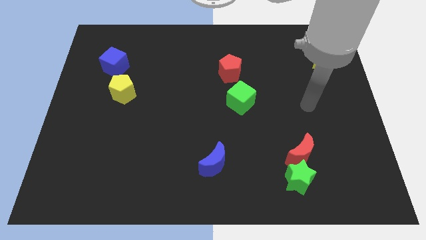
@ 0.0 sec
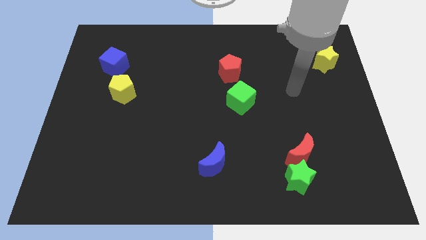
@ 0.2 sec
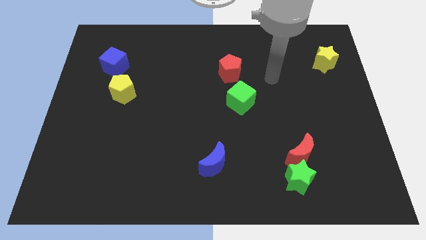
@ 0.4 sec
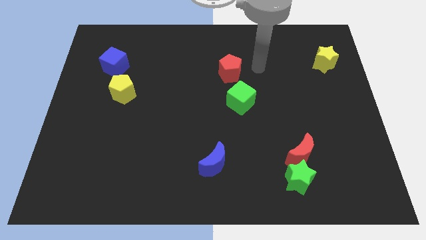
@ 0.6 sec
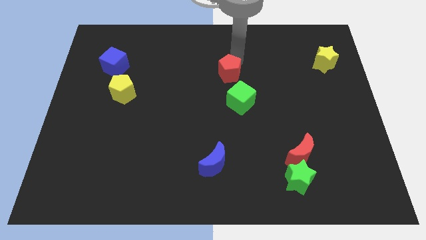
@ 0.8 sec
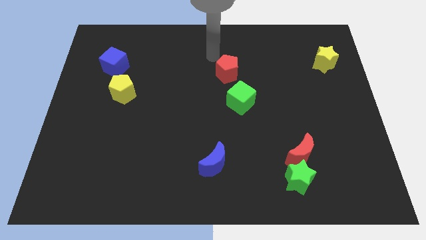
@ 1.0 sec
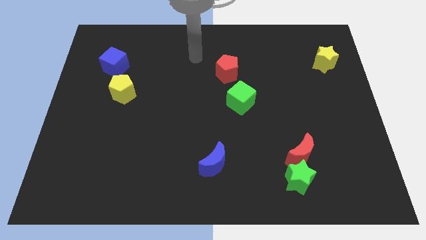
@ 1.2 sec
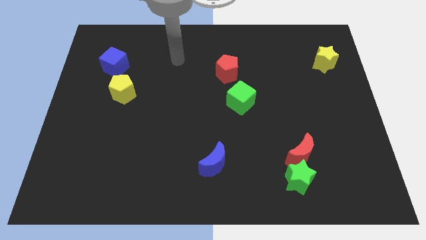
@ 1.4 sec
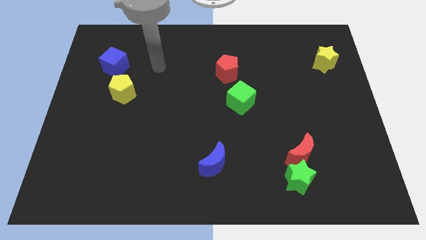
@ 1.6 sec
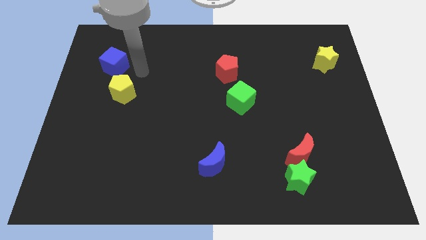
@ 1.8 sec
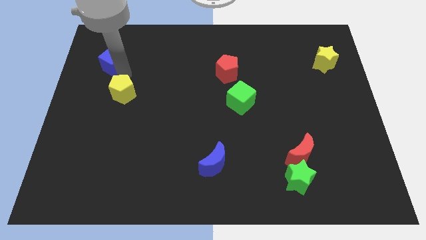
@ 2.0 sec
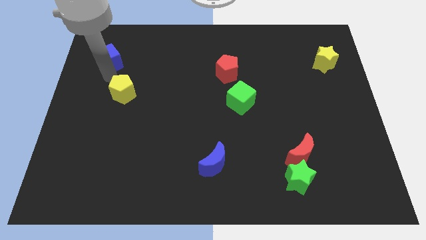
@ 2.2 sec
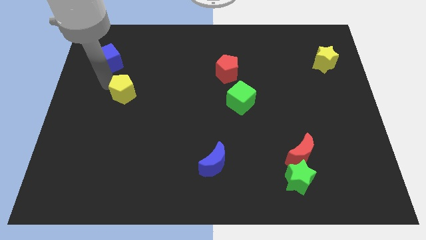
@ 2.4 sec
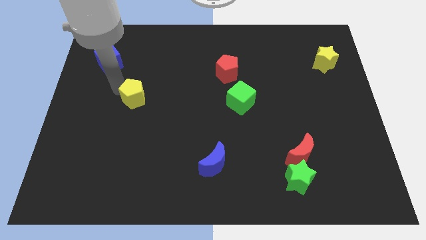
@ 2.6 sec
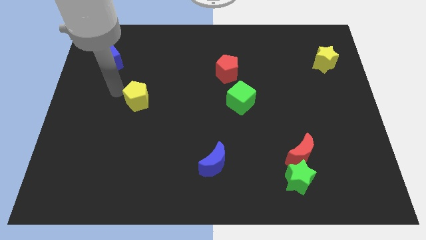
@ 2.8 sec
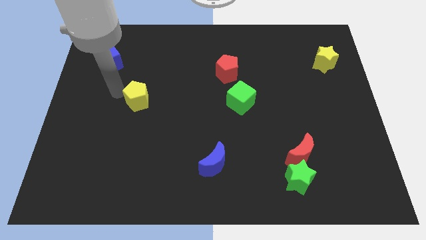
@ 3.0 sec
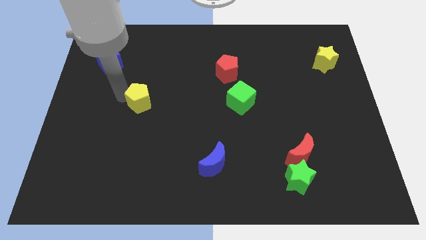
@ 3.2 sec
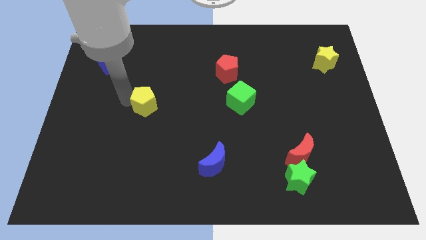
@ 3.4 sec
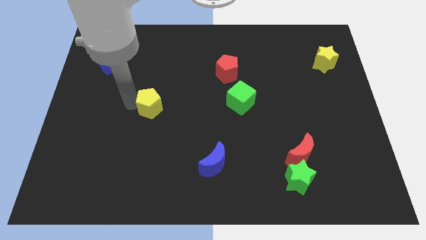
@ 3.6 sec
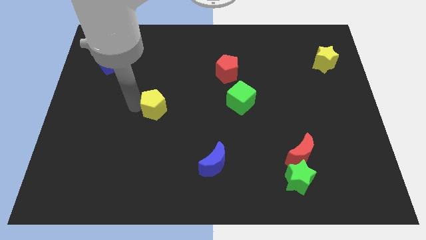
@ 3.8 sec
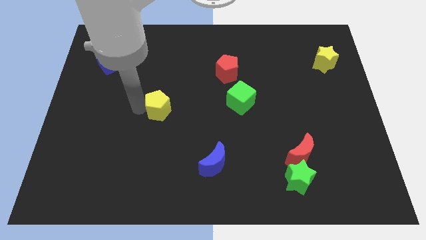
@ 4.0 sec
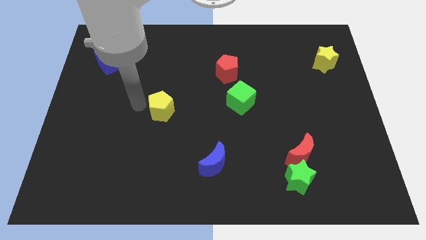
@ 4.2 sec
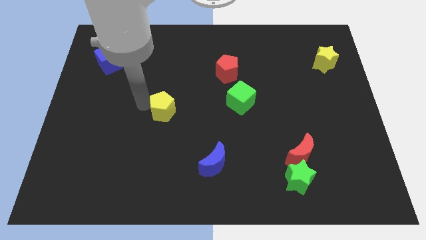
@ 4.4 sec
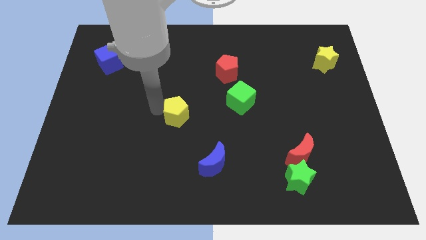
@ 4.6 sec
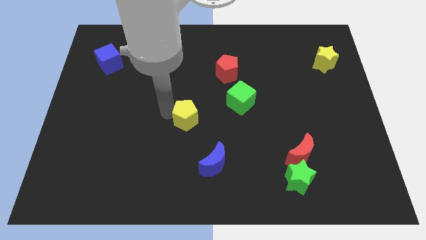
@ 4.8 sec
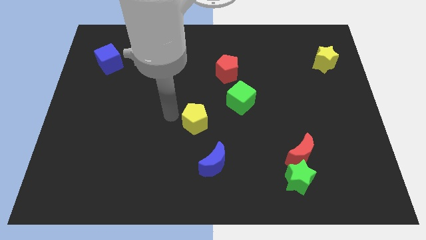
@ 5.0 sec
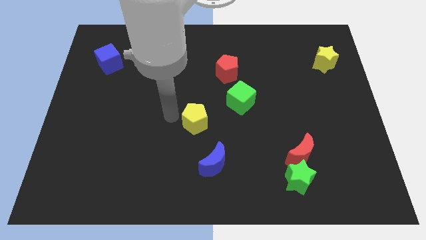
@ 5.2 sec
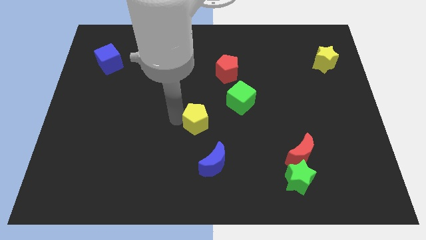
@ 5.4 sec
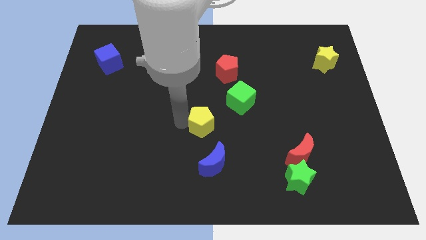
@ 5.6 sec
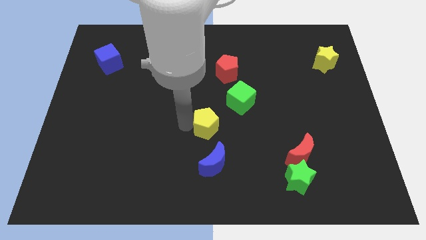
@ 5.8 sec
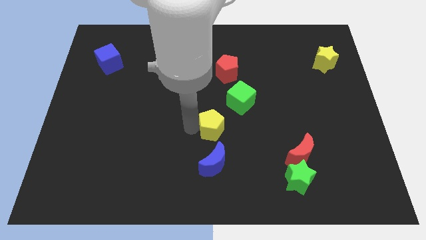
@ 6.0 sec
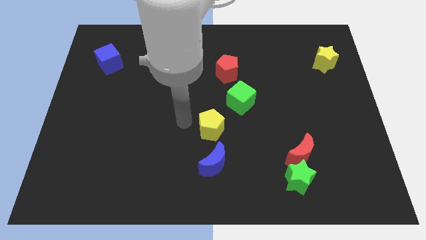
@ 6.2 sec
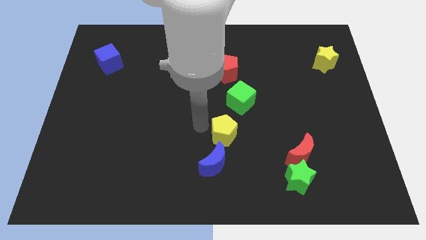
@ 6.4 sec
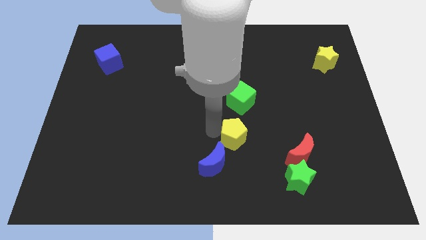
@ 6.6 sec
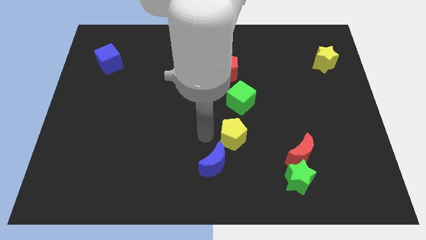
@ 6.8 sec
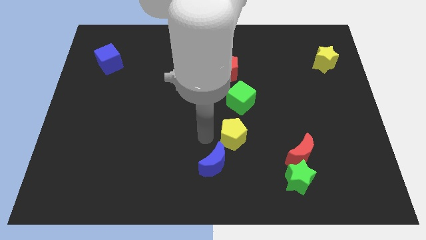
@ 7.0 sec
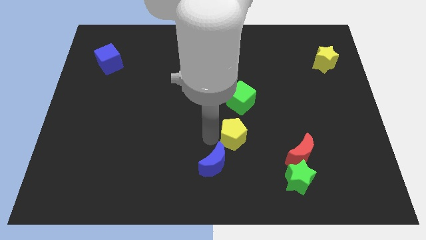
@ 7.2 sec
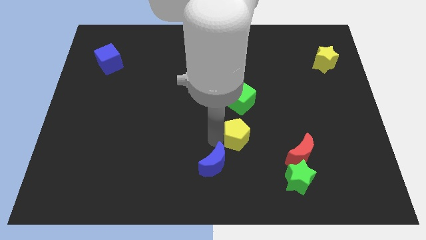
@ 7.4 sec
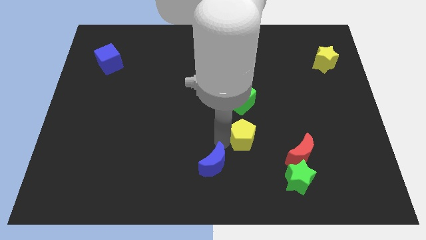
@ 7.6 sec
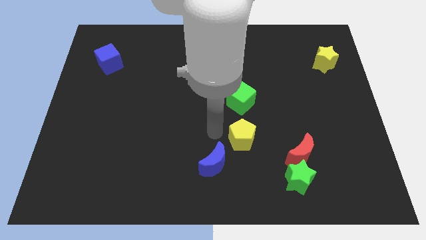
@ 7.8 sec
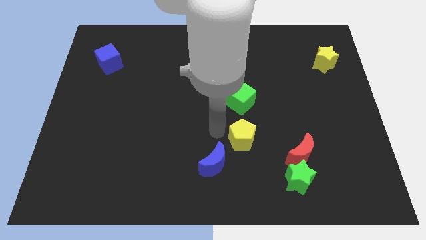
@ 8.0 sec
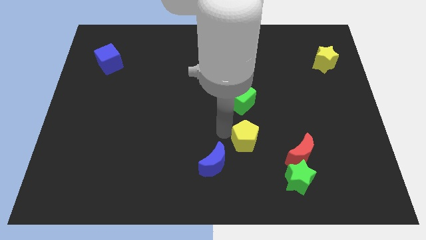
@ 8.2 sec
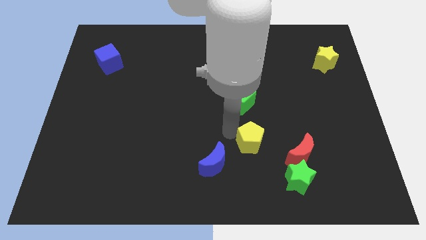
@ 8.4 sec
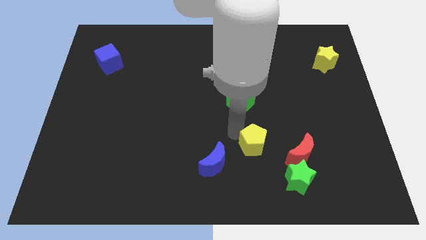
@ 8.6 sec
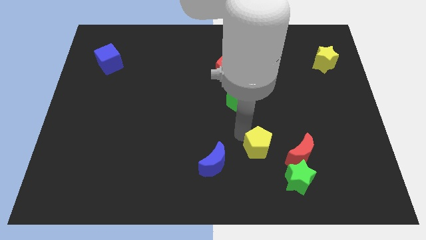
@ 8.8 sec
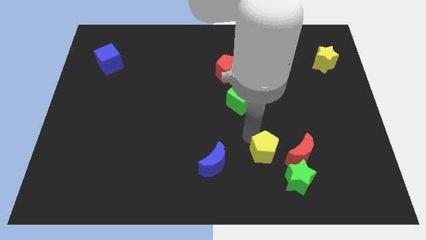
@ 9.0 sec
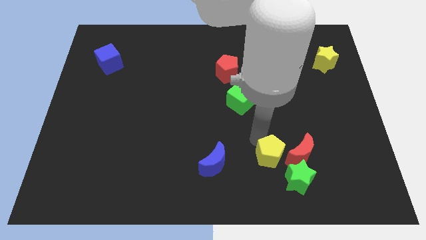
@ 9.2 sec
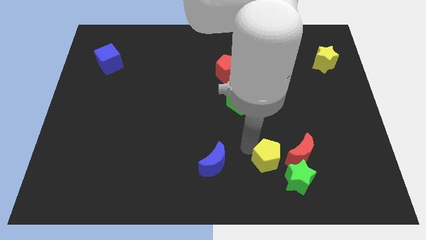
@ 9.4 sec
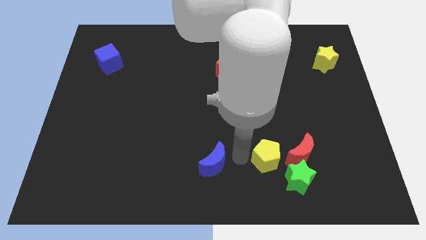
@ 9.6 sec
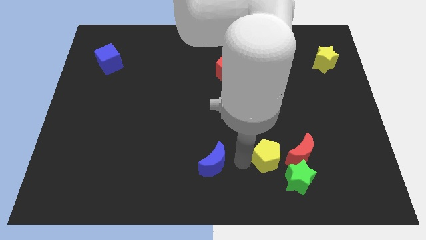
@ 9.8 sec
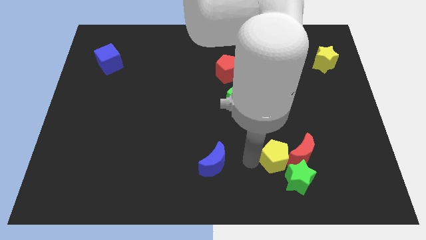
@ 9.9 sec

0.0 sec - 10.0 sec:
push the yellow pentagon next to the red moon

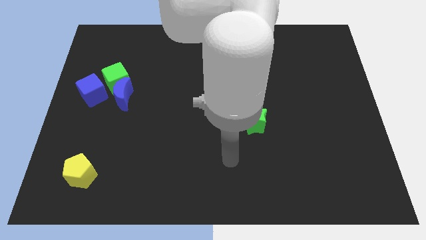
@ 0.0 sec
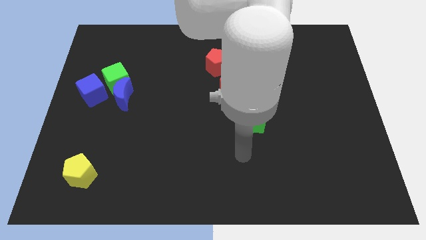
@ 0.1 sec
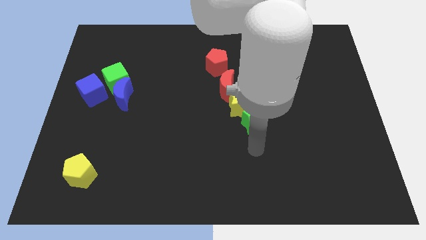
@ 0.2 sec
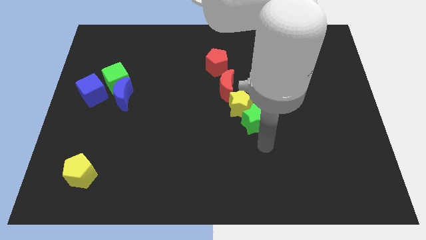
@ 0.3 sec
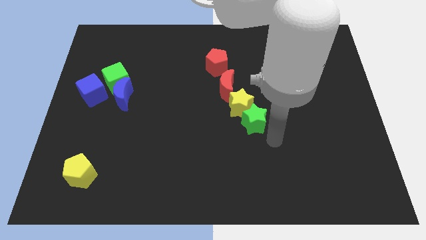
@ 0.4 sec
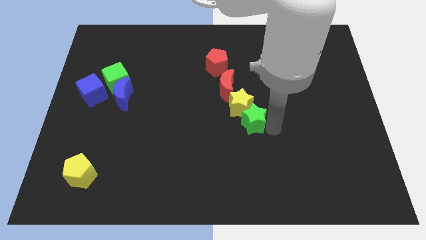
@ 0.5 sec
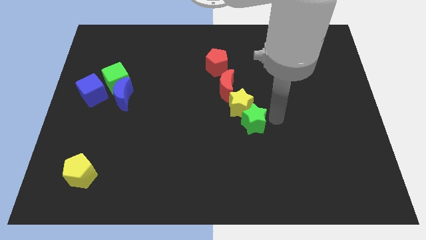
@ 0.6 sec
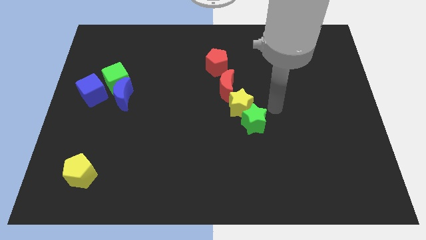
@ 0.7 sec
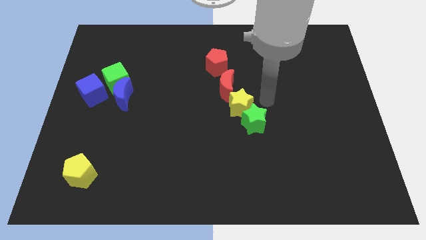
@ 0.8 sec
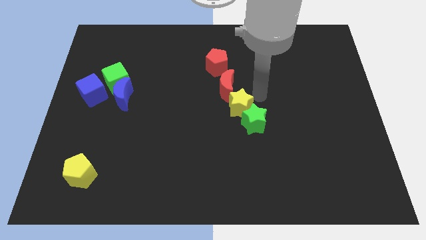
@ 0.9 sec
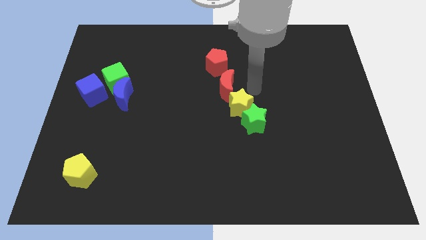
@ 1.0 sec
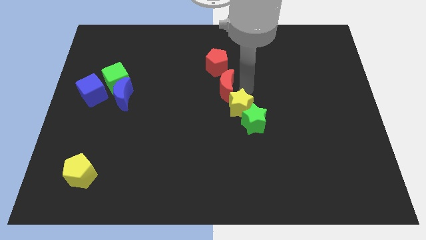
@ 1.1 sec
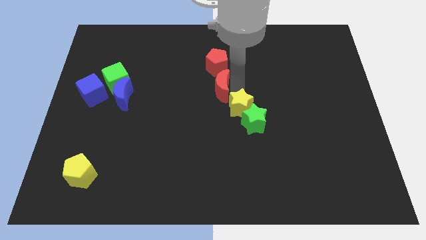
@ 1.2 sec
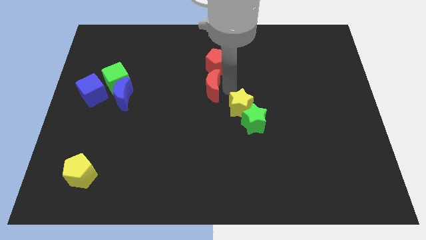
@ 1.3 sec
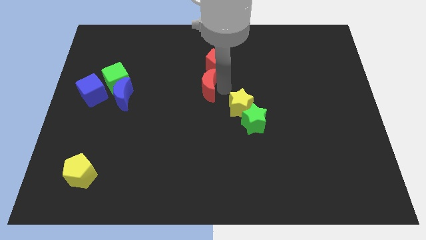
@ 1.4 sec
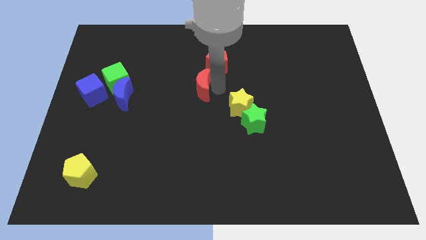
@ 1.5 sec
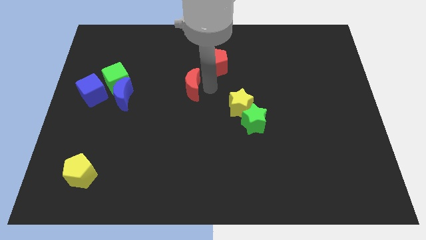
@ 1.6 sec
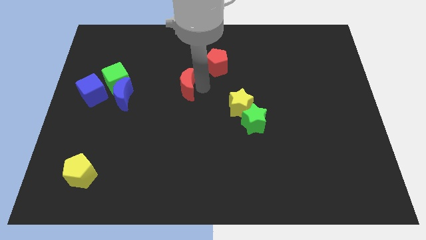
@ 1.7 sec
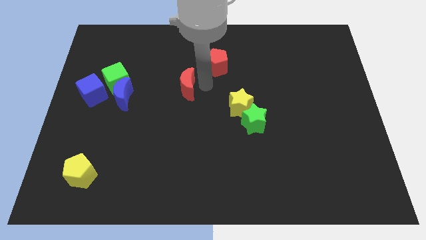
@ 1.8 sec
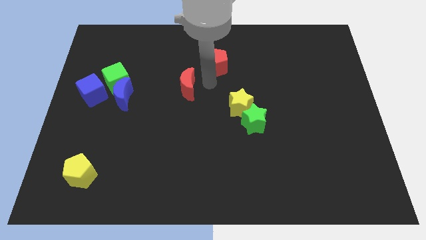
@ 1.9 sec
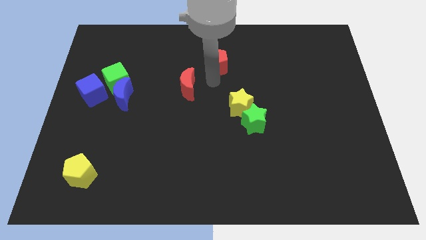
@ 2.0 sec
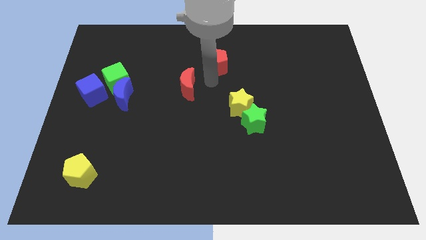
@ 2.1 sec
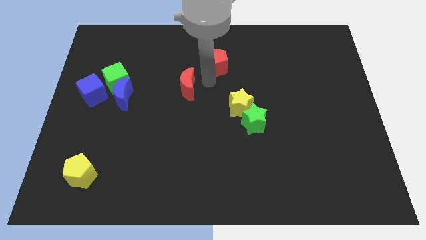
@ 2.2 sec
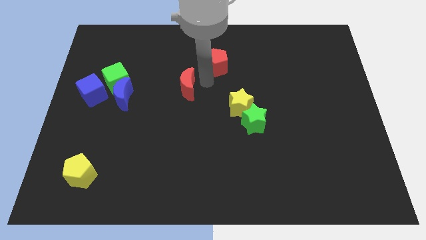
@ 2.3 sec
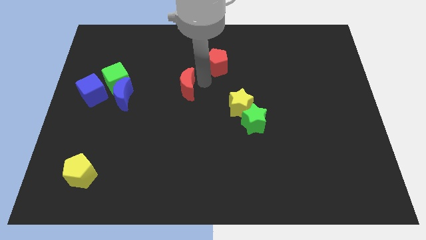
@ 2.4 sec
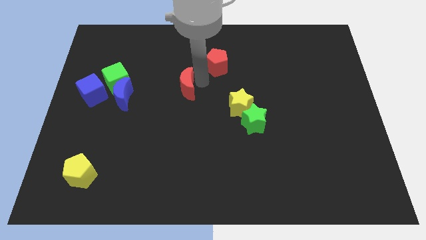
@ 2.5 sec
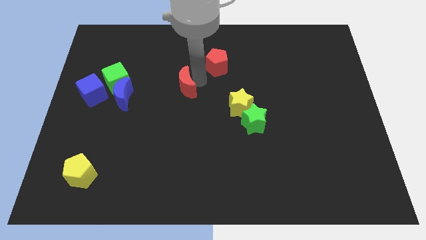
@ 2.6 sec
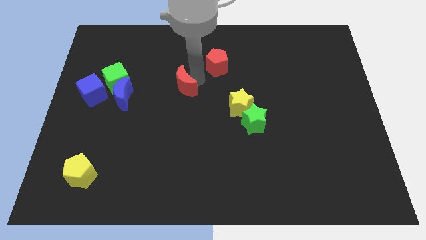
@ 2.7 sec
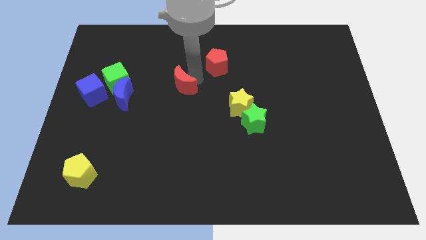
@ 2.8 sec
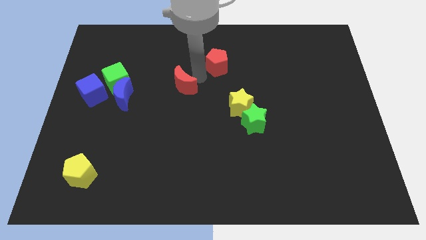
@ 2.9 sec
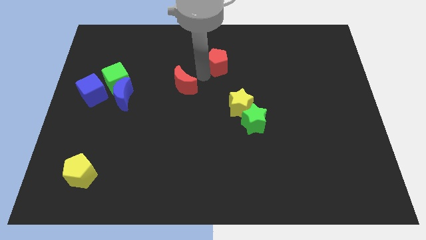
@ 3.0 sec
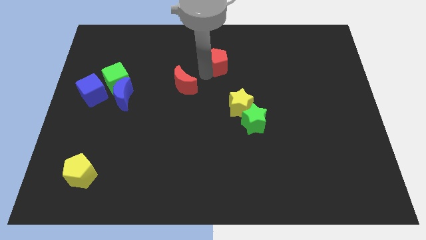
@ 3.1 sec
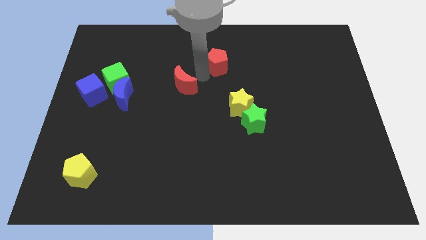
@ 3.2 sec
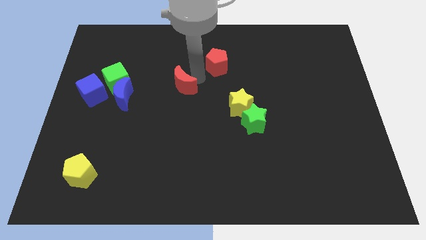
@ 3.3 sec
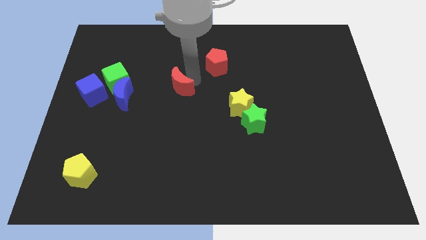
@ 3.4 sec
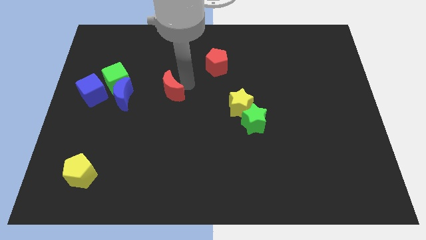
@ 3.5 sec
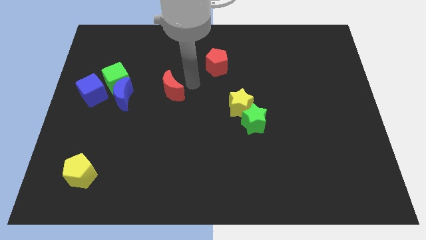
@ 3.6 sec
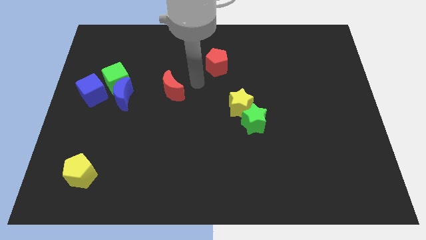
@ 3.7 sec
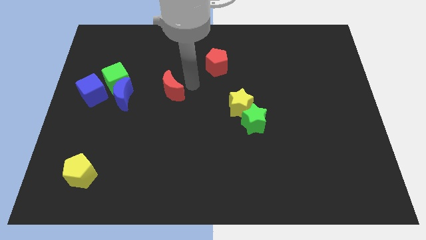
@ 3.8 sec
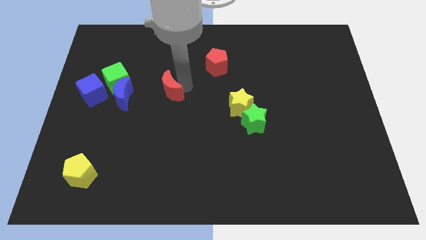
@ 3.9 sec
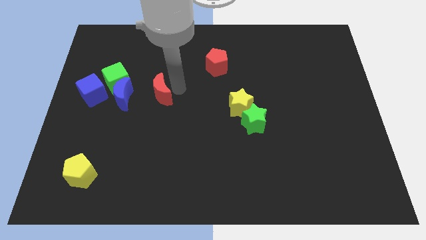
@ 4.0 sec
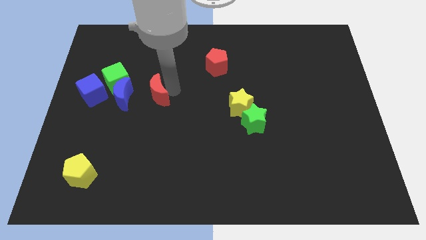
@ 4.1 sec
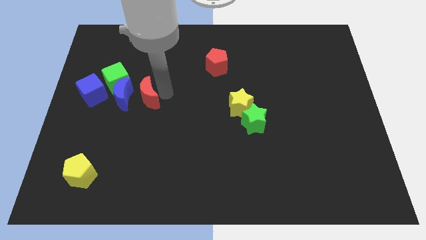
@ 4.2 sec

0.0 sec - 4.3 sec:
put the red moon towards the blue moon
